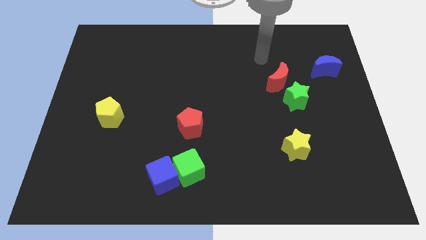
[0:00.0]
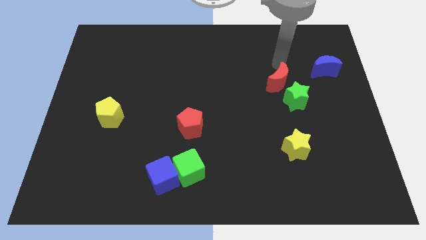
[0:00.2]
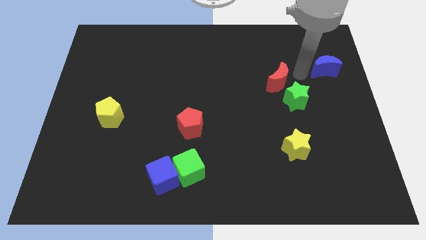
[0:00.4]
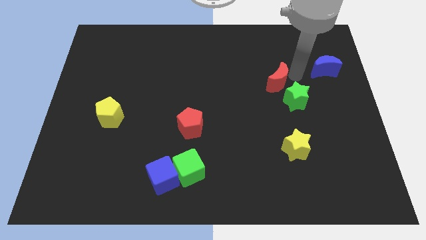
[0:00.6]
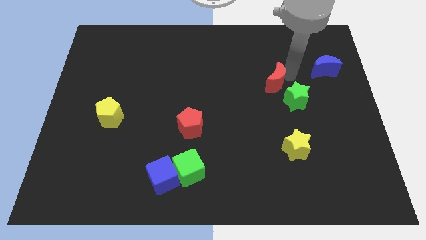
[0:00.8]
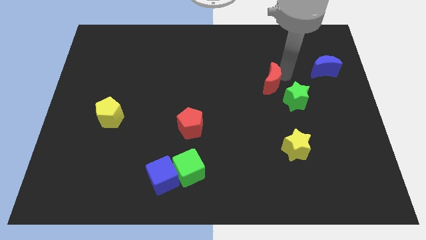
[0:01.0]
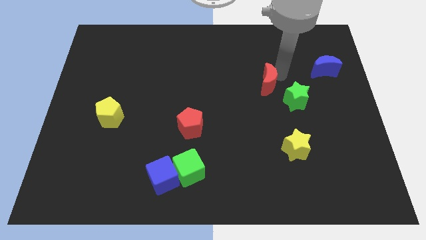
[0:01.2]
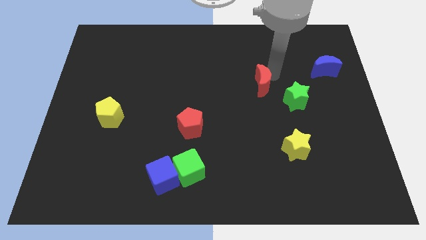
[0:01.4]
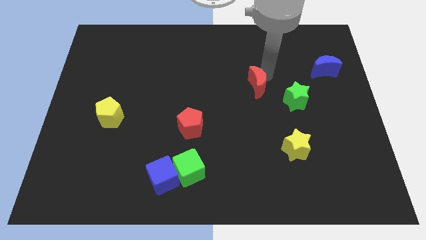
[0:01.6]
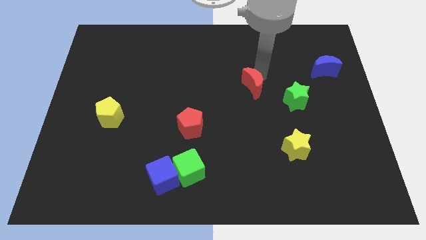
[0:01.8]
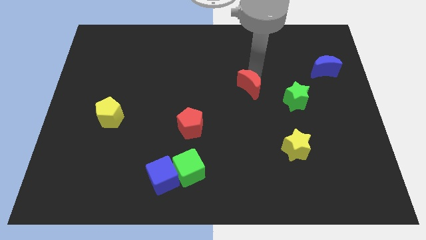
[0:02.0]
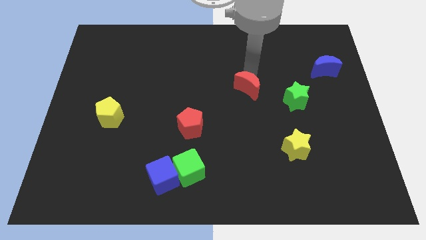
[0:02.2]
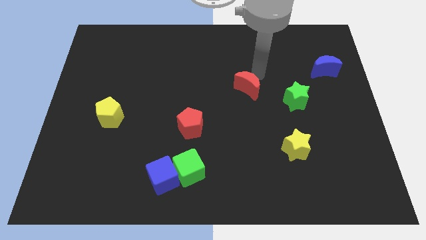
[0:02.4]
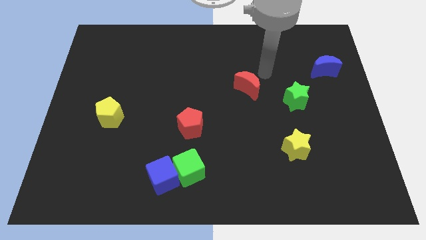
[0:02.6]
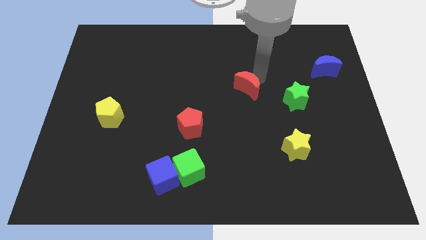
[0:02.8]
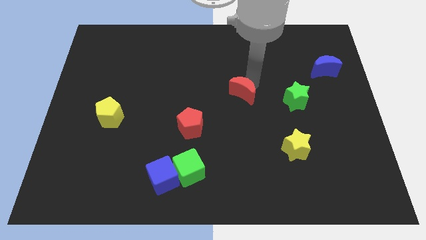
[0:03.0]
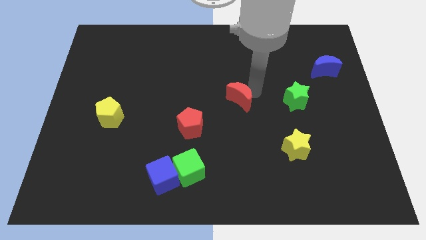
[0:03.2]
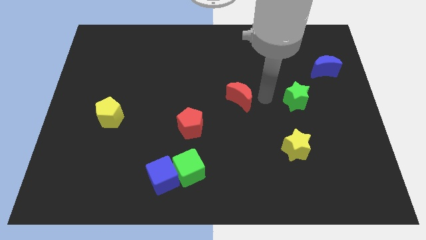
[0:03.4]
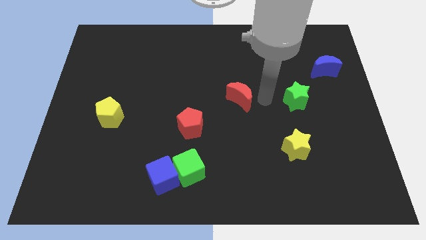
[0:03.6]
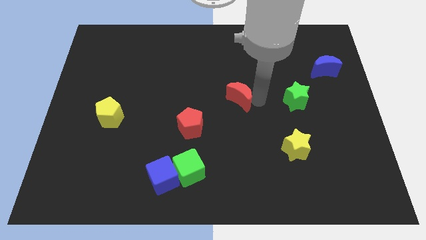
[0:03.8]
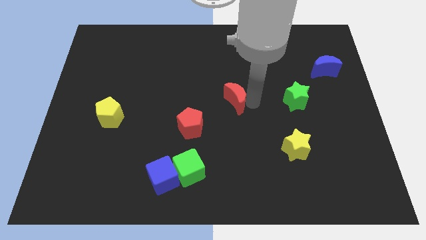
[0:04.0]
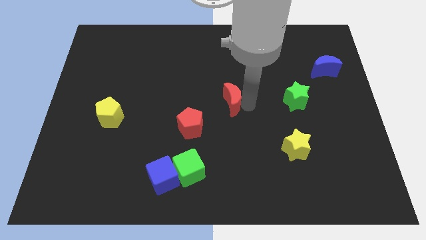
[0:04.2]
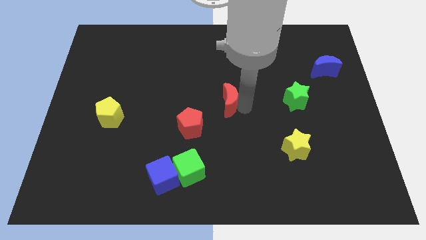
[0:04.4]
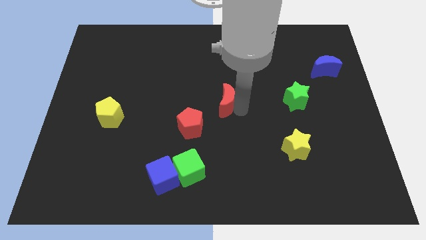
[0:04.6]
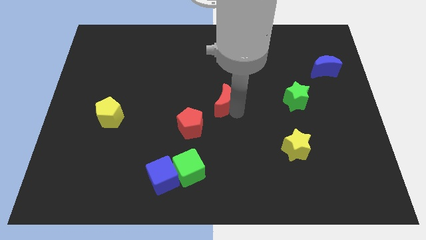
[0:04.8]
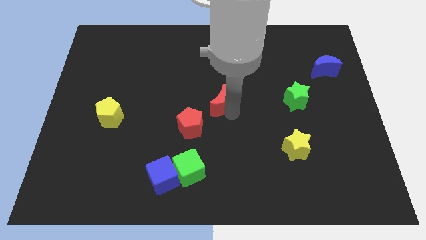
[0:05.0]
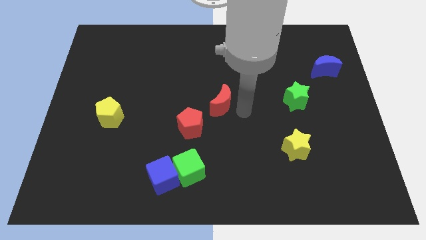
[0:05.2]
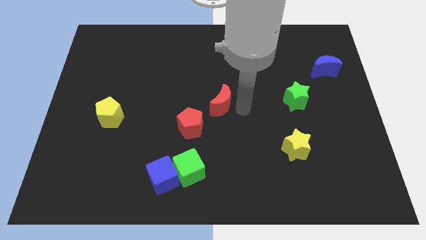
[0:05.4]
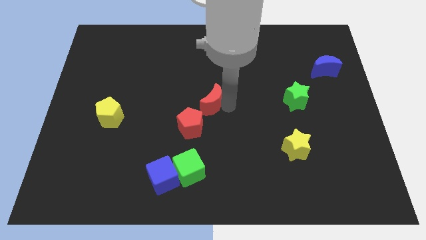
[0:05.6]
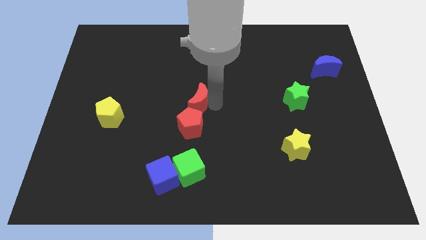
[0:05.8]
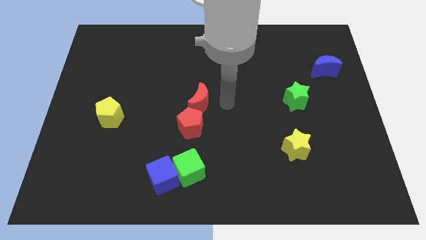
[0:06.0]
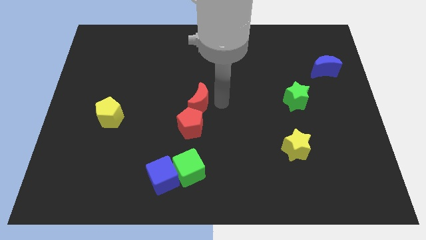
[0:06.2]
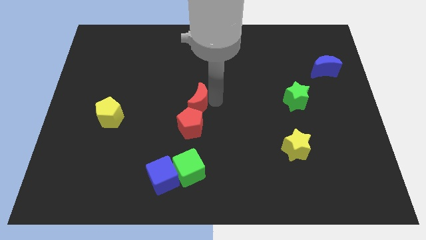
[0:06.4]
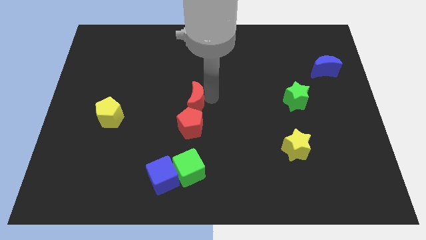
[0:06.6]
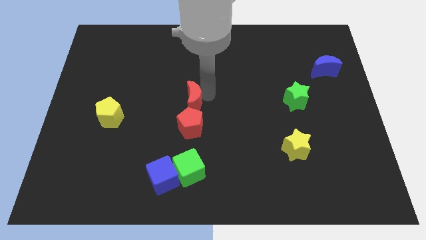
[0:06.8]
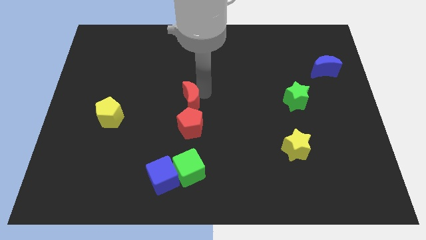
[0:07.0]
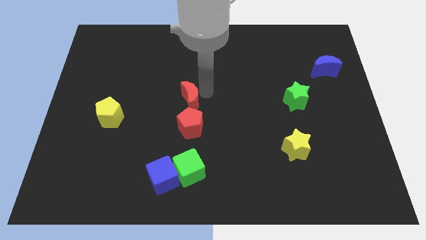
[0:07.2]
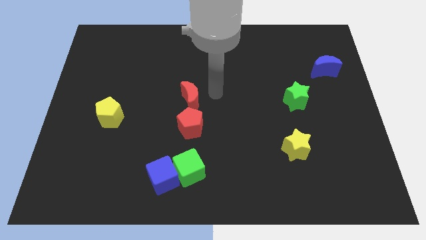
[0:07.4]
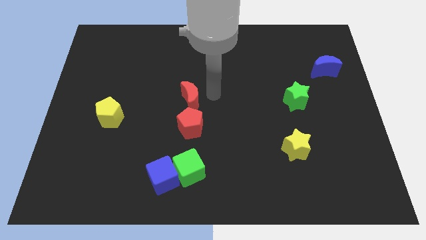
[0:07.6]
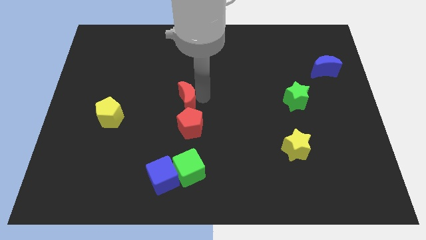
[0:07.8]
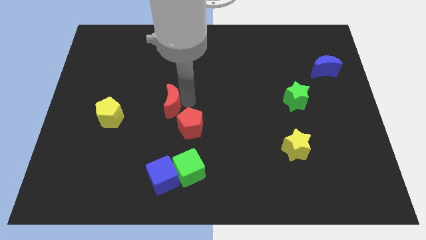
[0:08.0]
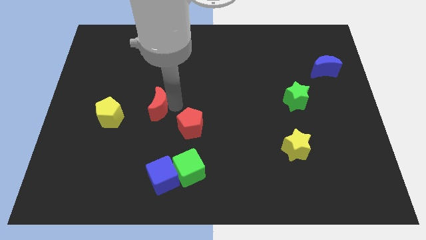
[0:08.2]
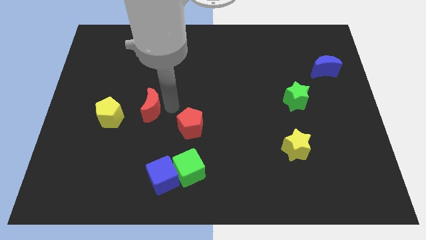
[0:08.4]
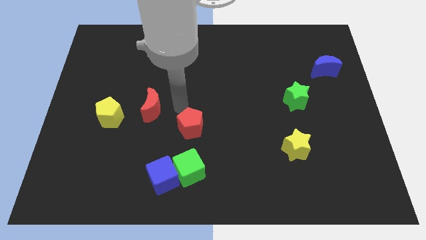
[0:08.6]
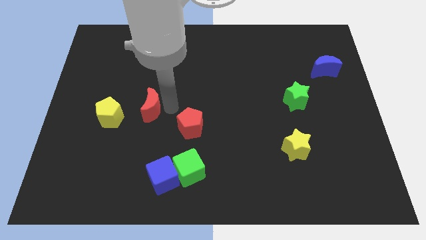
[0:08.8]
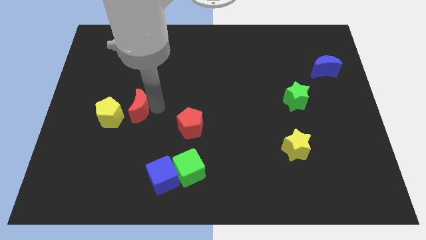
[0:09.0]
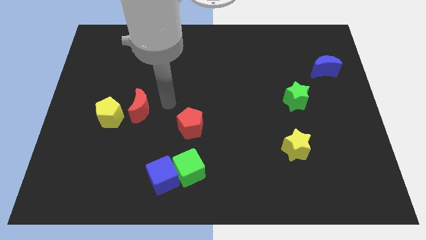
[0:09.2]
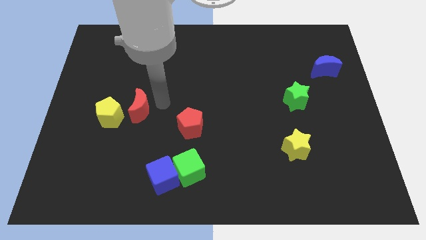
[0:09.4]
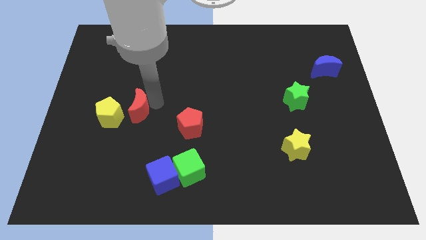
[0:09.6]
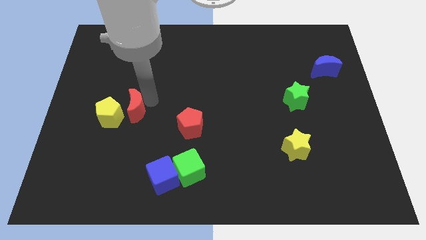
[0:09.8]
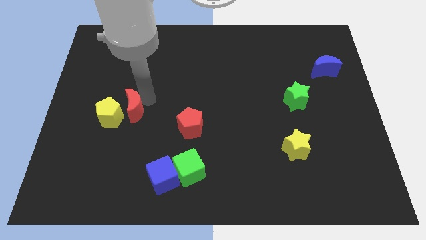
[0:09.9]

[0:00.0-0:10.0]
put the red moon next to the yellow pentagon

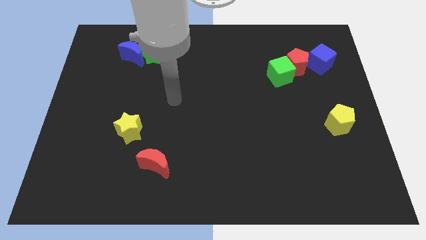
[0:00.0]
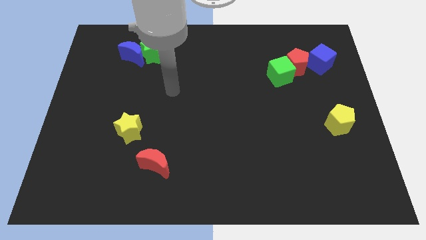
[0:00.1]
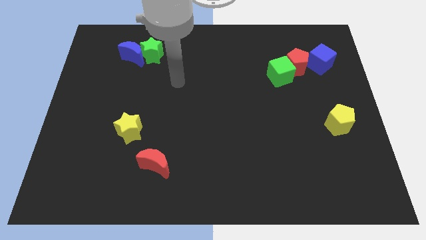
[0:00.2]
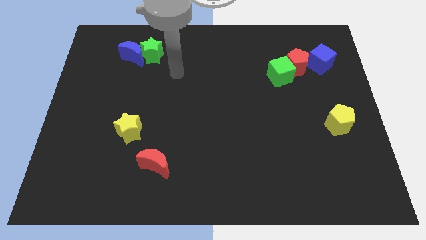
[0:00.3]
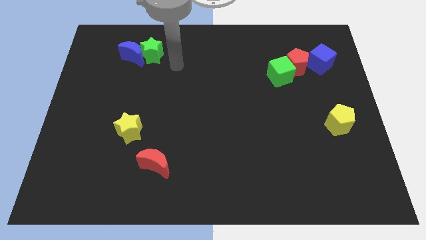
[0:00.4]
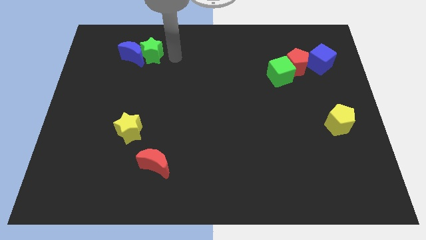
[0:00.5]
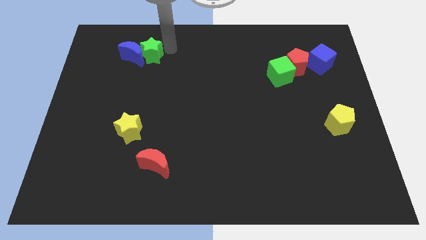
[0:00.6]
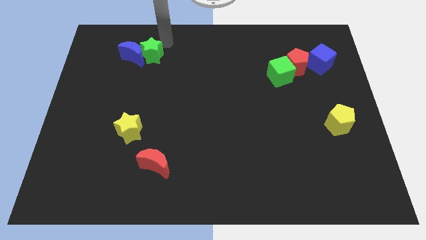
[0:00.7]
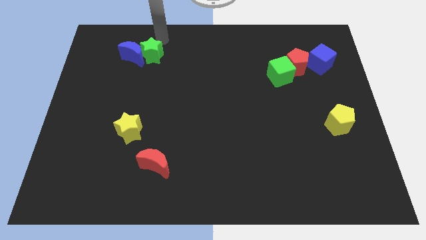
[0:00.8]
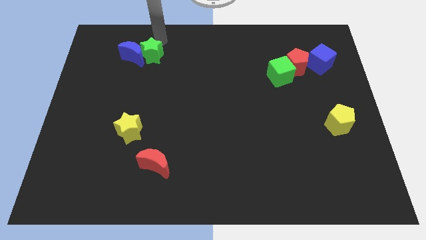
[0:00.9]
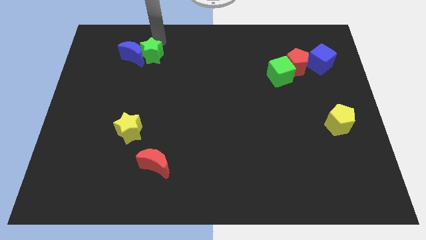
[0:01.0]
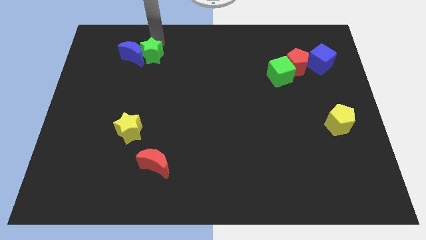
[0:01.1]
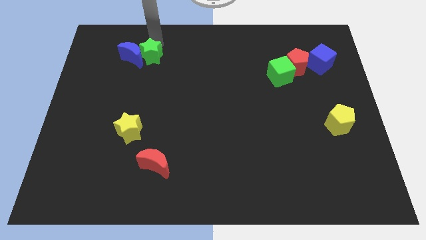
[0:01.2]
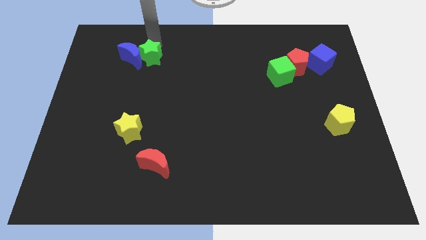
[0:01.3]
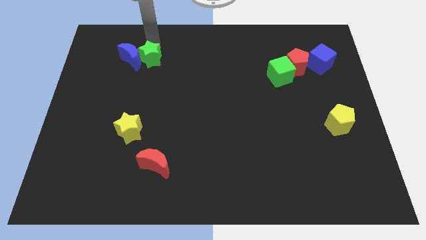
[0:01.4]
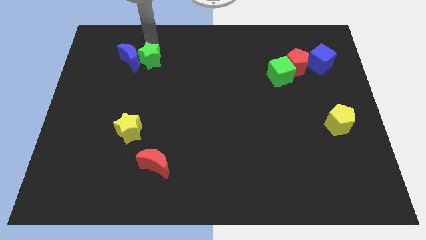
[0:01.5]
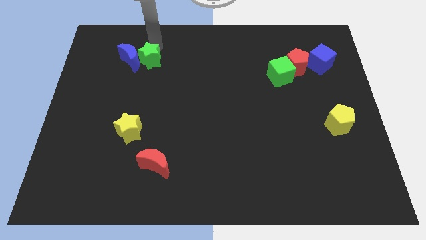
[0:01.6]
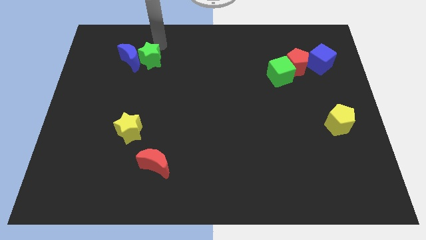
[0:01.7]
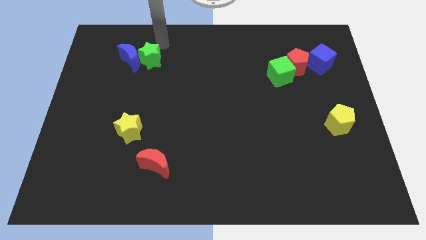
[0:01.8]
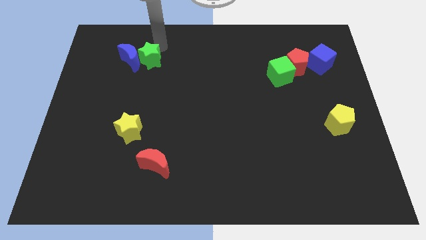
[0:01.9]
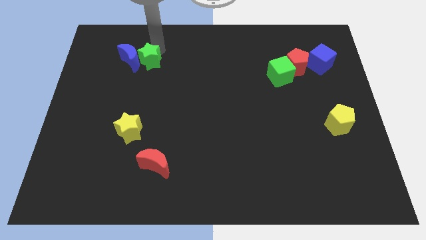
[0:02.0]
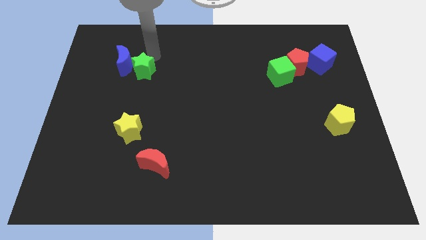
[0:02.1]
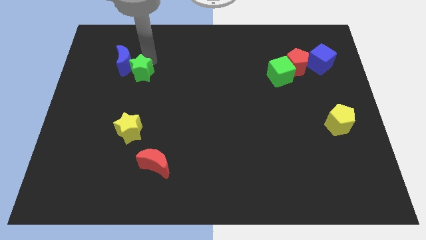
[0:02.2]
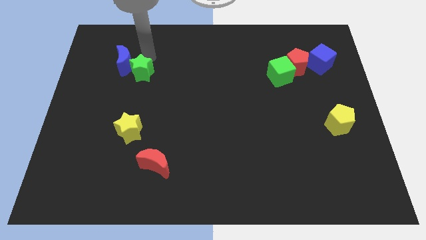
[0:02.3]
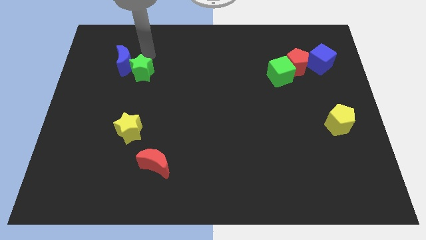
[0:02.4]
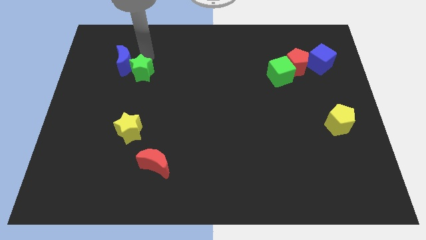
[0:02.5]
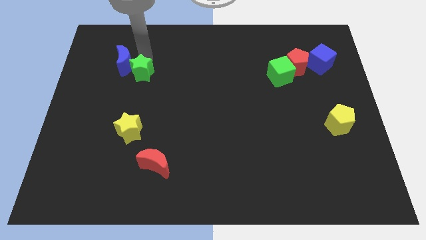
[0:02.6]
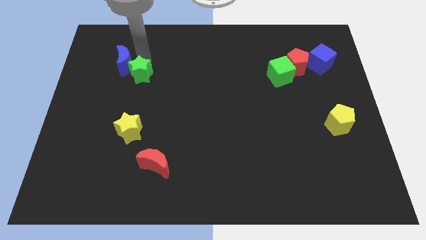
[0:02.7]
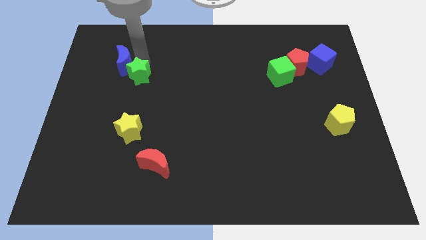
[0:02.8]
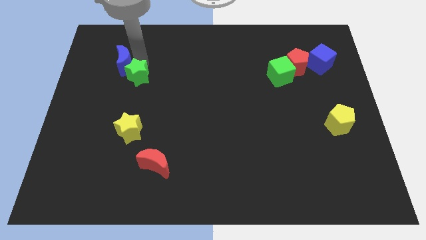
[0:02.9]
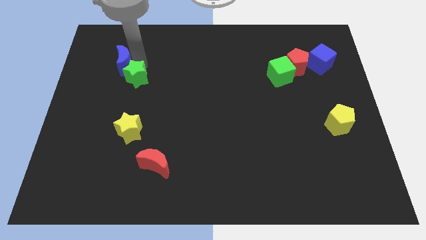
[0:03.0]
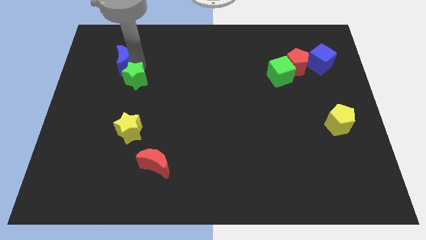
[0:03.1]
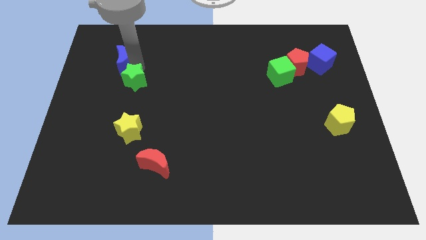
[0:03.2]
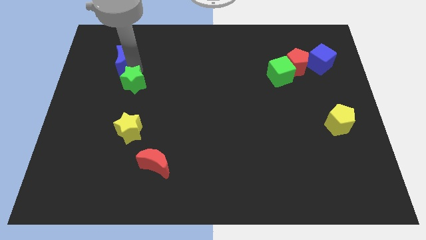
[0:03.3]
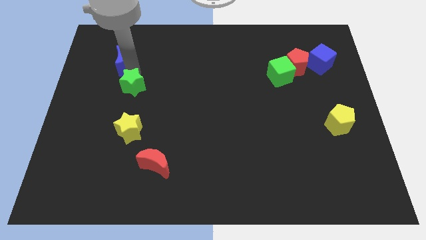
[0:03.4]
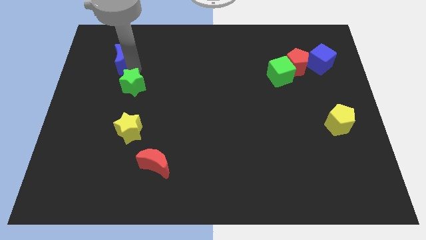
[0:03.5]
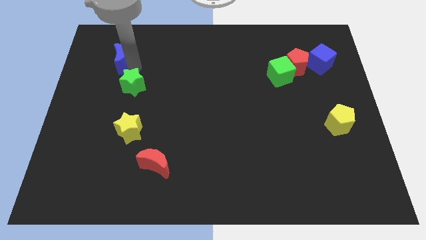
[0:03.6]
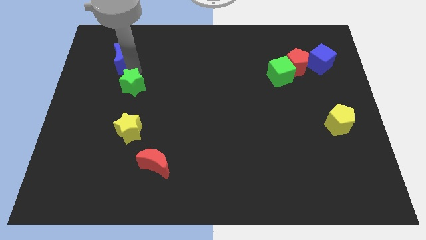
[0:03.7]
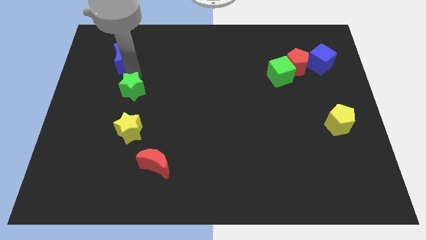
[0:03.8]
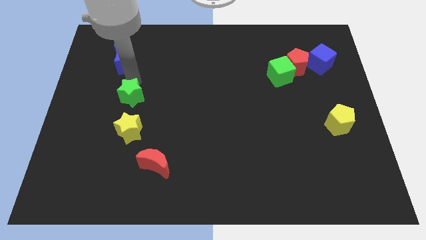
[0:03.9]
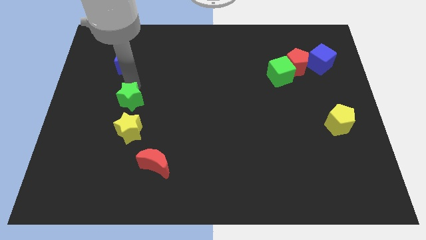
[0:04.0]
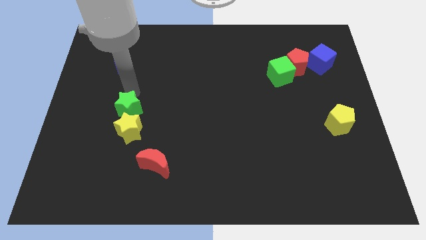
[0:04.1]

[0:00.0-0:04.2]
move the green star to the yellow star
